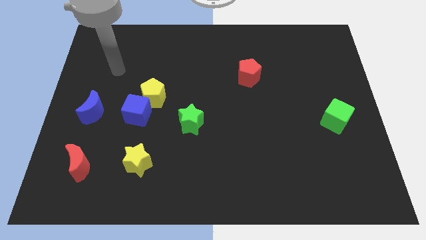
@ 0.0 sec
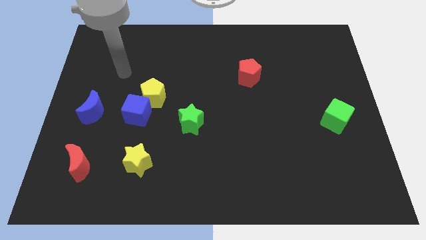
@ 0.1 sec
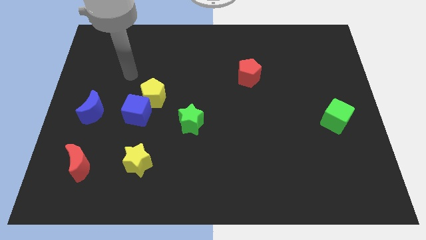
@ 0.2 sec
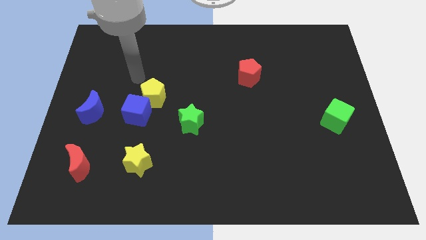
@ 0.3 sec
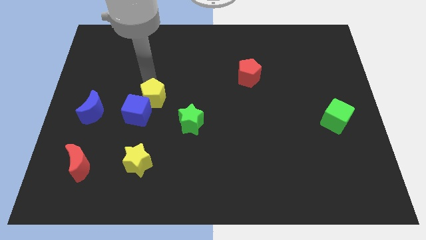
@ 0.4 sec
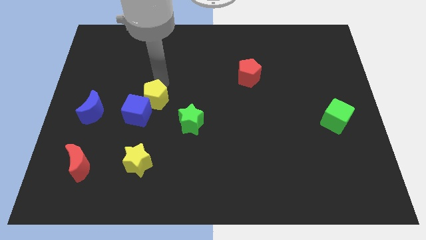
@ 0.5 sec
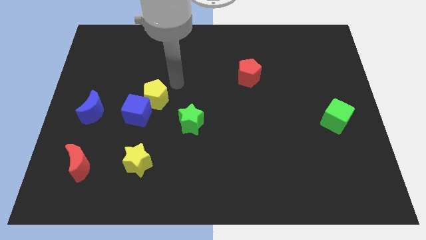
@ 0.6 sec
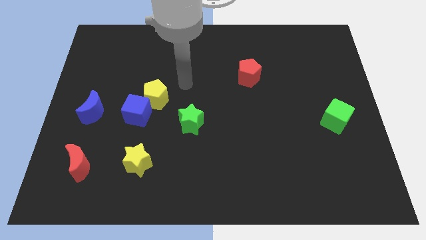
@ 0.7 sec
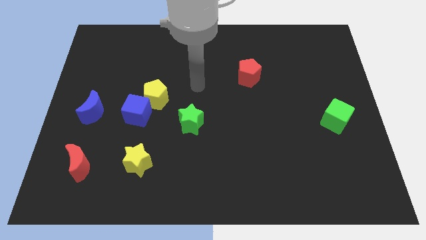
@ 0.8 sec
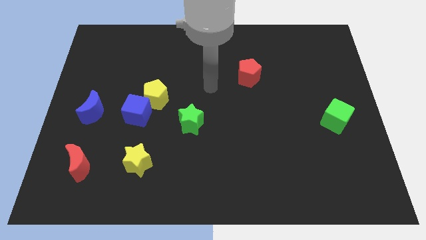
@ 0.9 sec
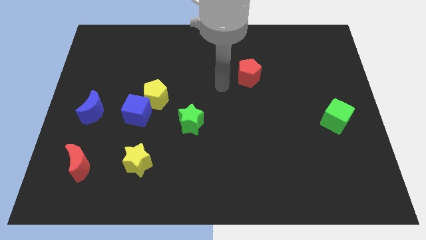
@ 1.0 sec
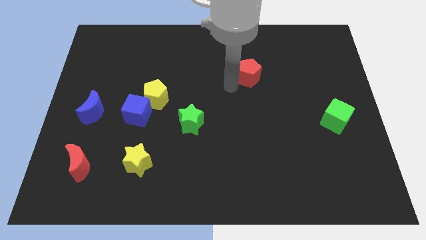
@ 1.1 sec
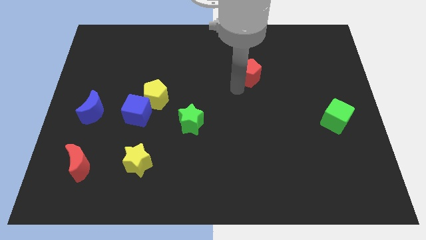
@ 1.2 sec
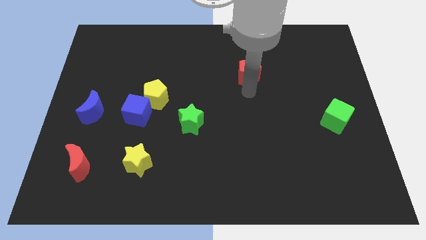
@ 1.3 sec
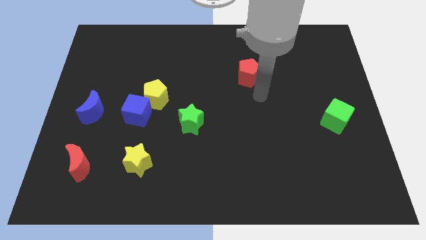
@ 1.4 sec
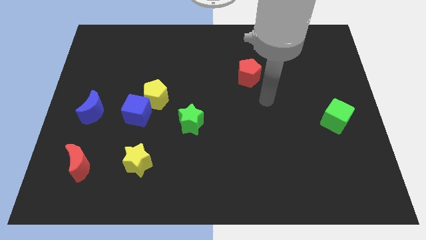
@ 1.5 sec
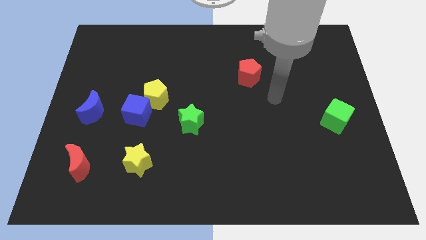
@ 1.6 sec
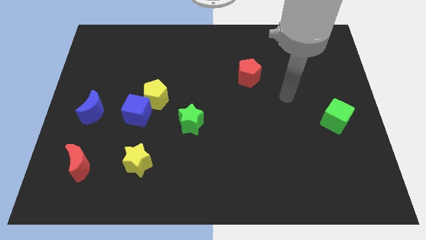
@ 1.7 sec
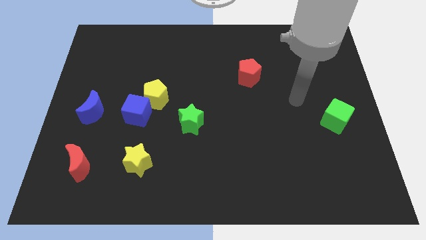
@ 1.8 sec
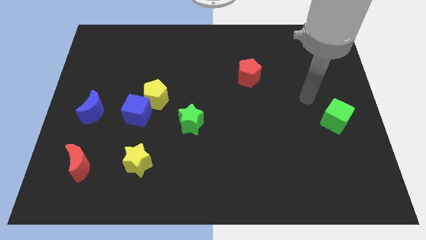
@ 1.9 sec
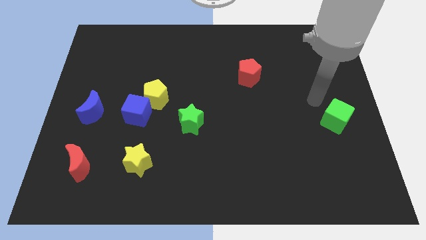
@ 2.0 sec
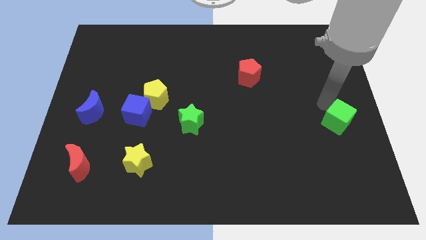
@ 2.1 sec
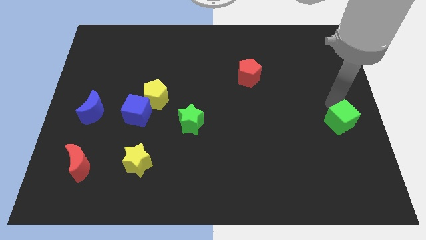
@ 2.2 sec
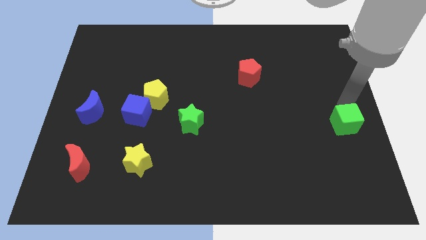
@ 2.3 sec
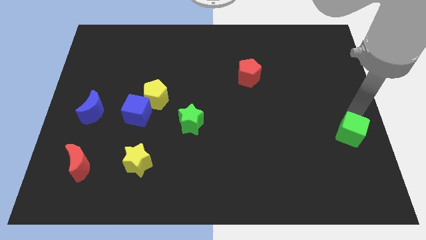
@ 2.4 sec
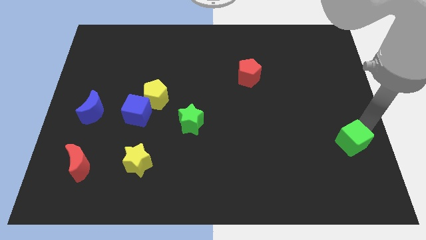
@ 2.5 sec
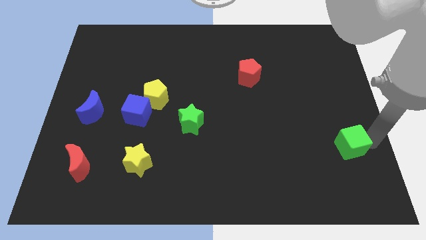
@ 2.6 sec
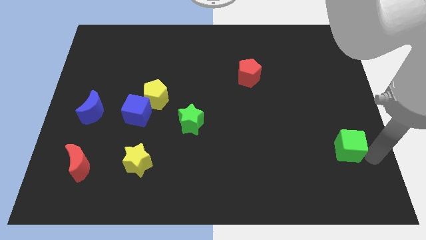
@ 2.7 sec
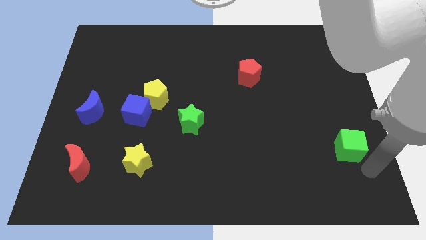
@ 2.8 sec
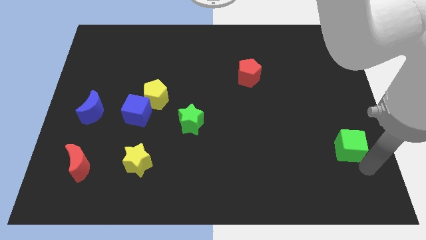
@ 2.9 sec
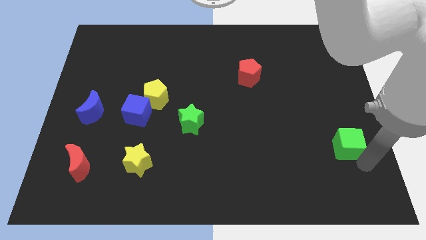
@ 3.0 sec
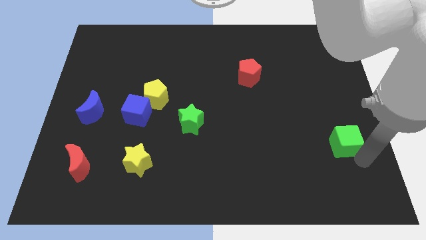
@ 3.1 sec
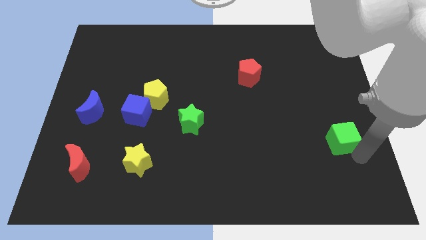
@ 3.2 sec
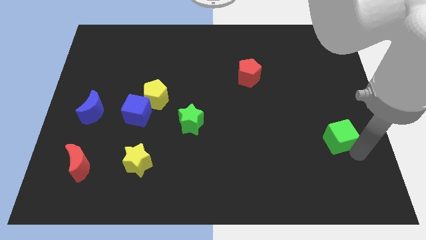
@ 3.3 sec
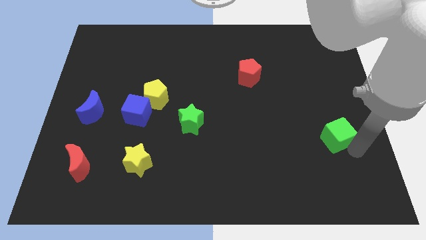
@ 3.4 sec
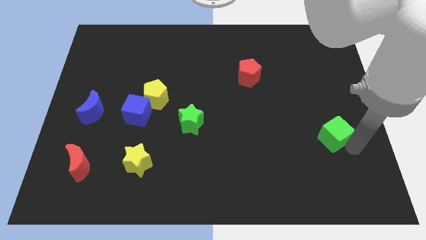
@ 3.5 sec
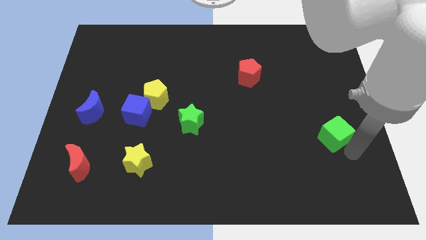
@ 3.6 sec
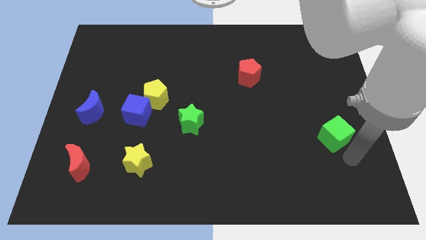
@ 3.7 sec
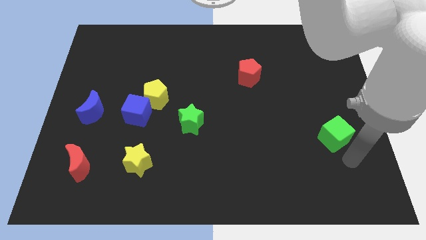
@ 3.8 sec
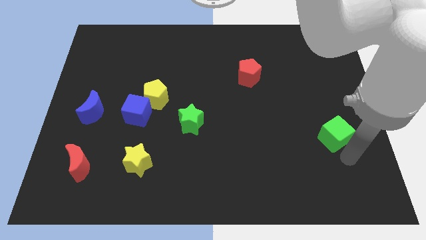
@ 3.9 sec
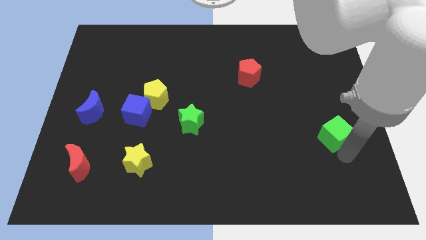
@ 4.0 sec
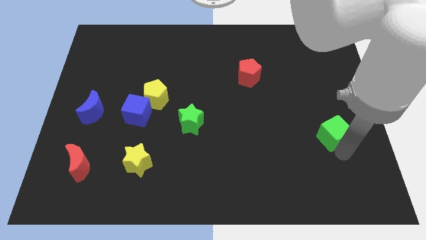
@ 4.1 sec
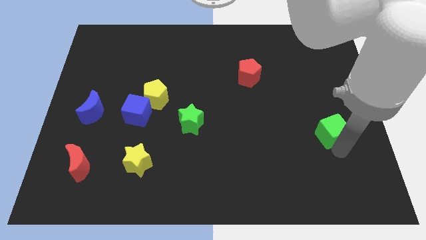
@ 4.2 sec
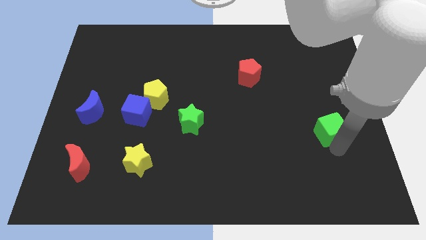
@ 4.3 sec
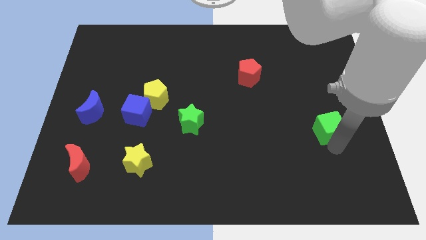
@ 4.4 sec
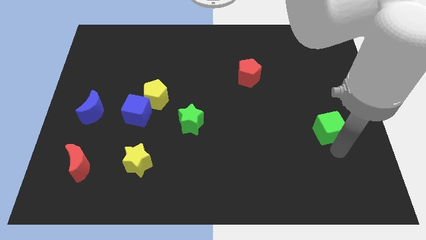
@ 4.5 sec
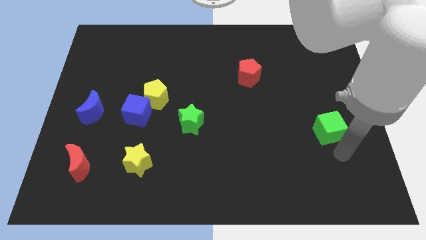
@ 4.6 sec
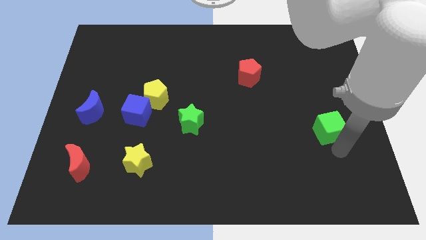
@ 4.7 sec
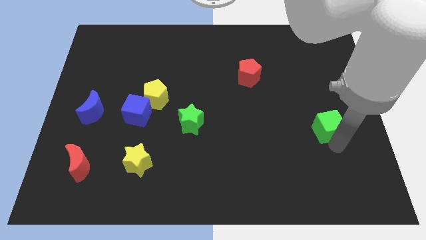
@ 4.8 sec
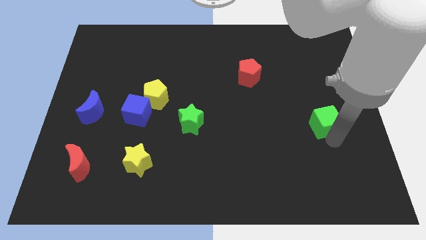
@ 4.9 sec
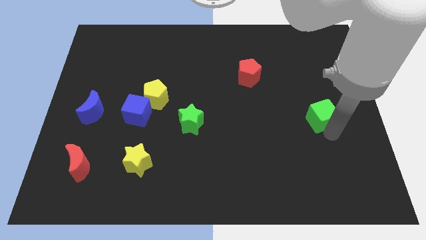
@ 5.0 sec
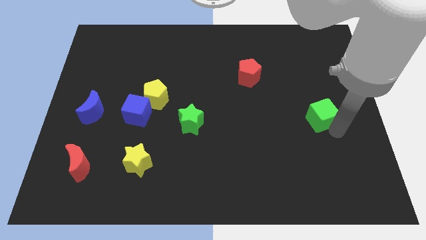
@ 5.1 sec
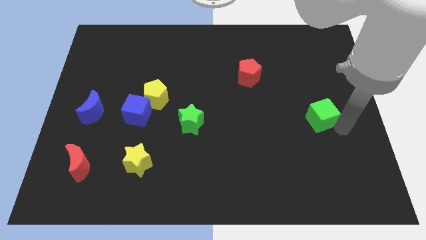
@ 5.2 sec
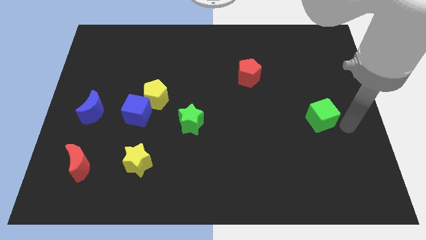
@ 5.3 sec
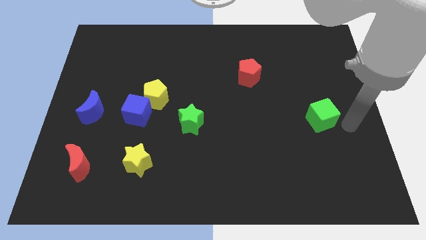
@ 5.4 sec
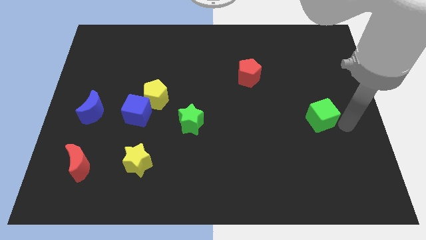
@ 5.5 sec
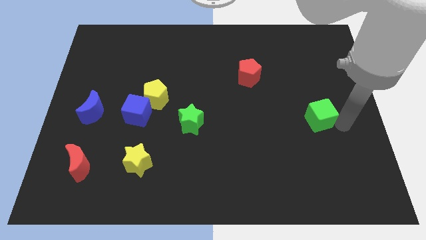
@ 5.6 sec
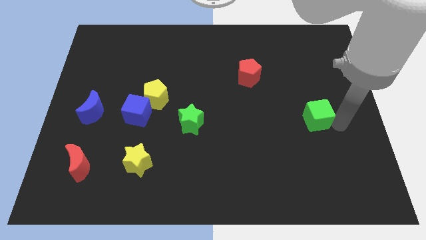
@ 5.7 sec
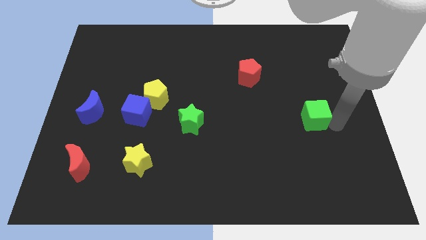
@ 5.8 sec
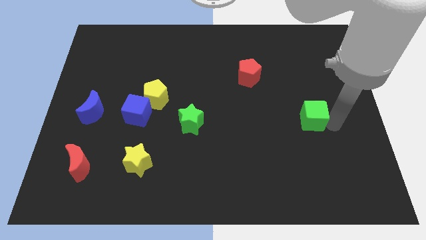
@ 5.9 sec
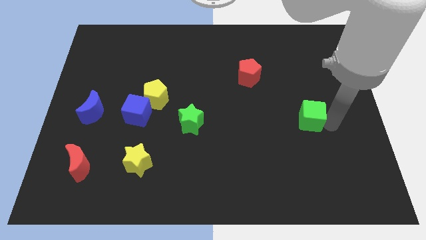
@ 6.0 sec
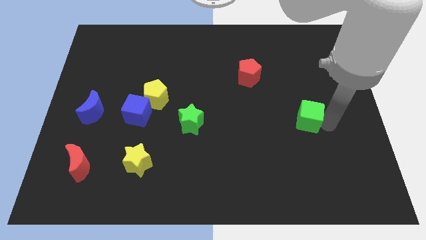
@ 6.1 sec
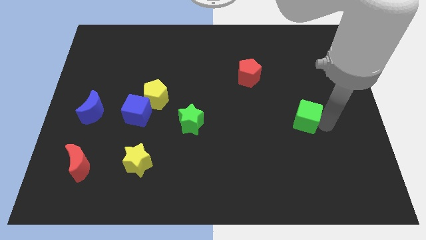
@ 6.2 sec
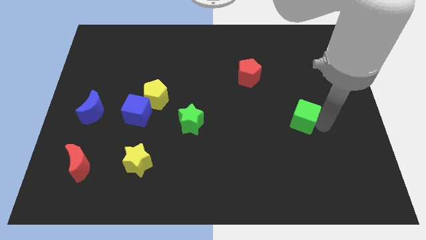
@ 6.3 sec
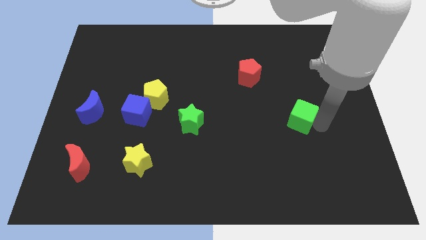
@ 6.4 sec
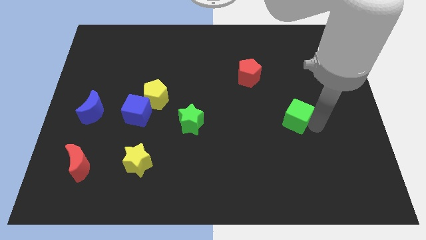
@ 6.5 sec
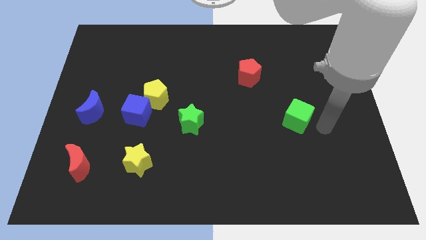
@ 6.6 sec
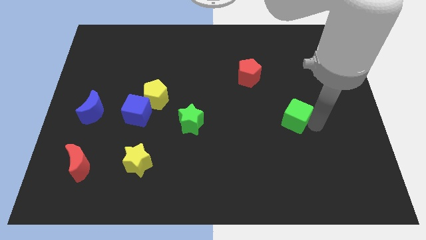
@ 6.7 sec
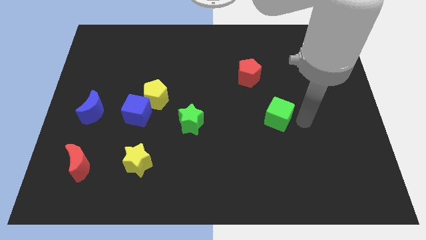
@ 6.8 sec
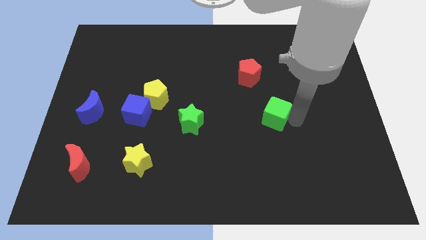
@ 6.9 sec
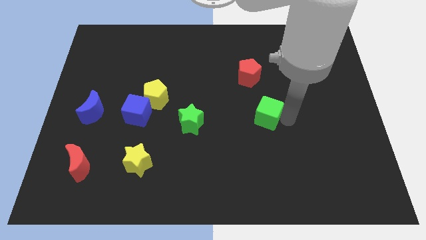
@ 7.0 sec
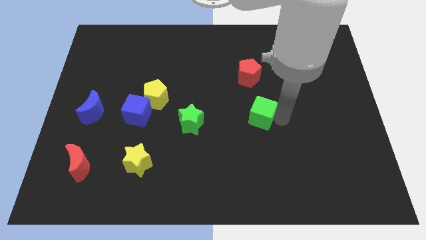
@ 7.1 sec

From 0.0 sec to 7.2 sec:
push the green cube to the middle of the board

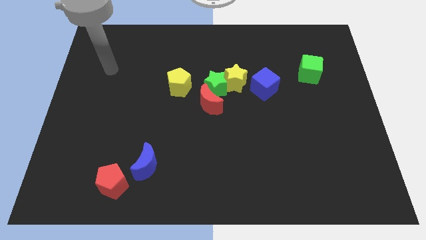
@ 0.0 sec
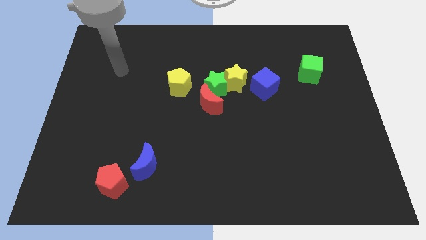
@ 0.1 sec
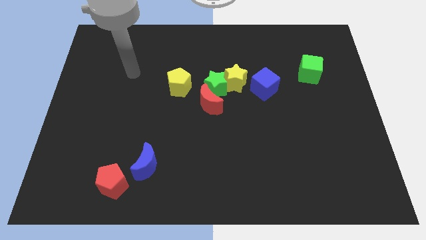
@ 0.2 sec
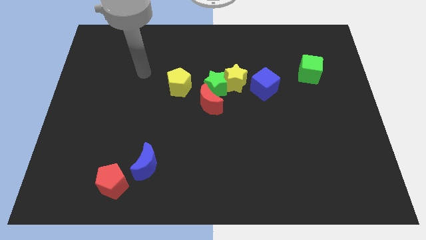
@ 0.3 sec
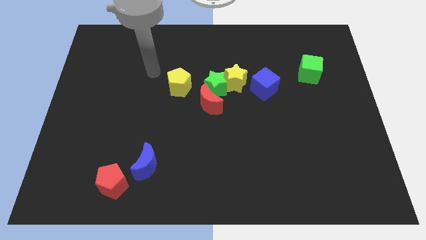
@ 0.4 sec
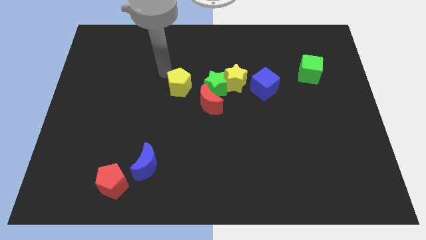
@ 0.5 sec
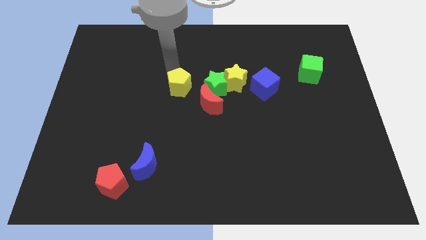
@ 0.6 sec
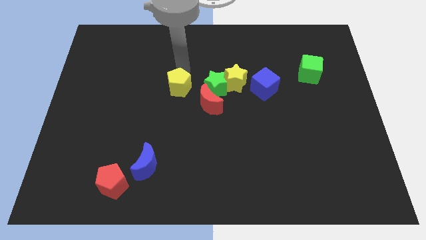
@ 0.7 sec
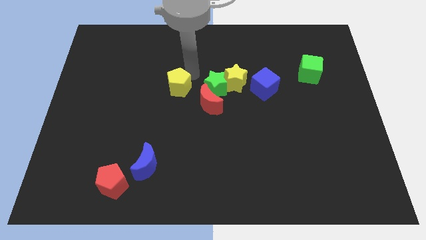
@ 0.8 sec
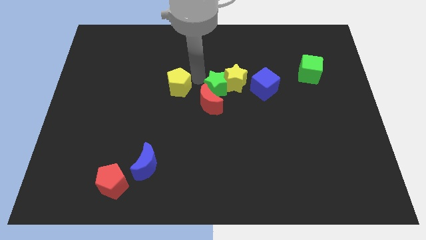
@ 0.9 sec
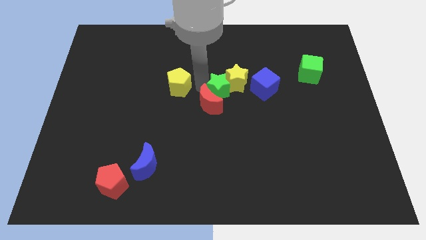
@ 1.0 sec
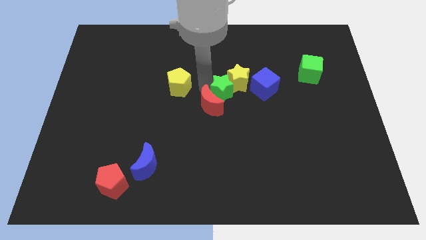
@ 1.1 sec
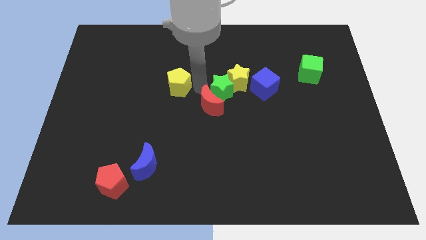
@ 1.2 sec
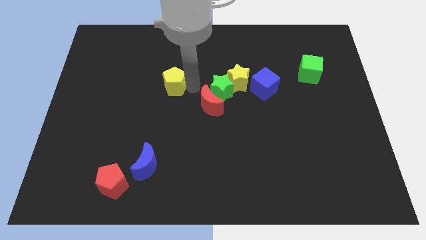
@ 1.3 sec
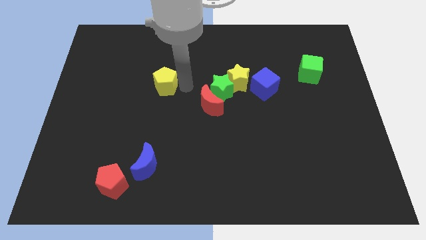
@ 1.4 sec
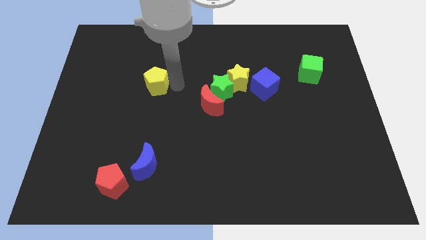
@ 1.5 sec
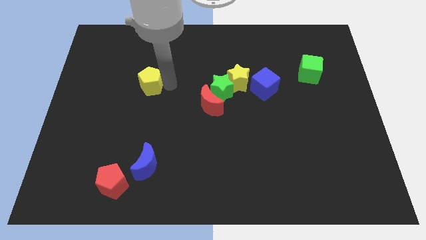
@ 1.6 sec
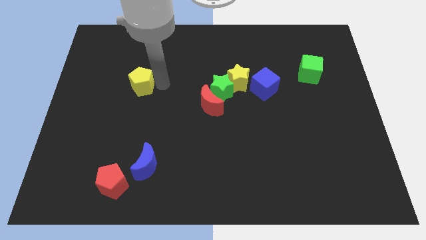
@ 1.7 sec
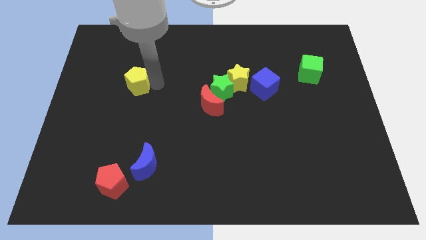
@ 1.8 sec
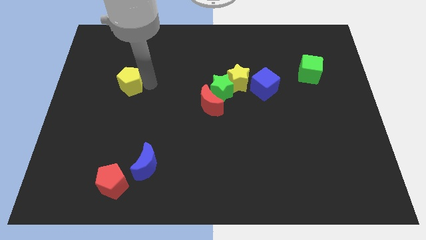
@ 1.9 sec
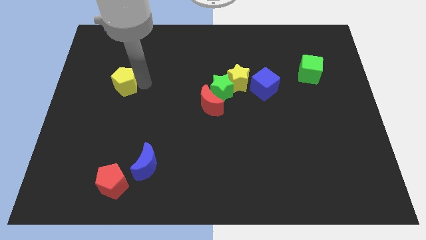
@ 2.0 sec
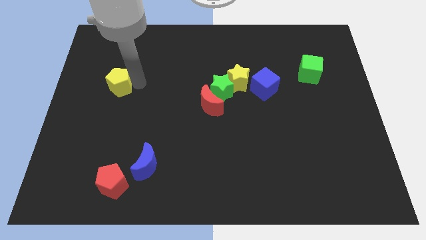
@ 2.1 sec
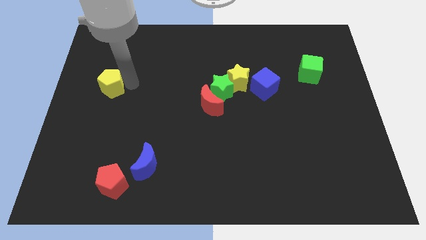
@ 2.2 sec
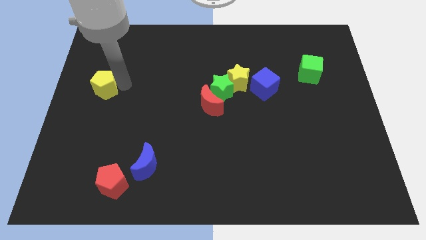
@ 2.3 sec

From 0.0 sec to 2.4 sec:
move the yellow pentagon to the center left
